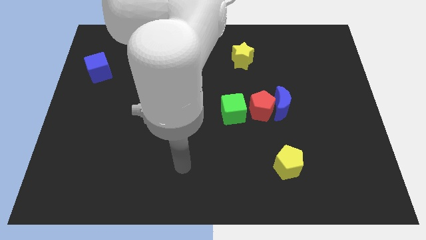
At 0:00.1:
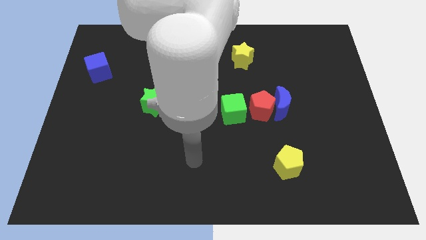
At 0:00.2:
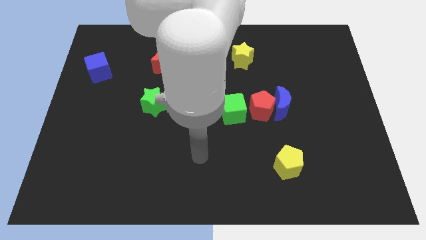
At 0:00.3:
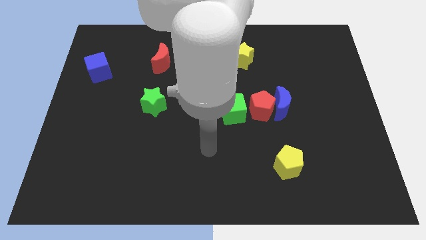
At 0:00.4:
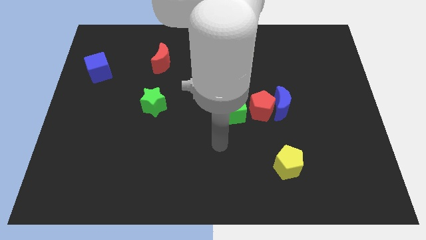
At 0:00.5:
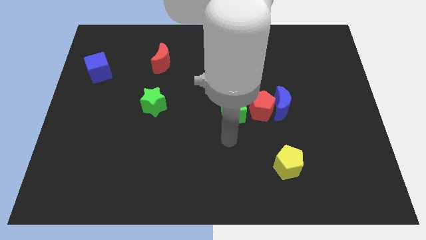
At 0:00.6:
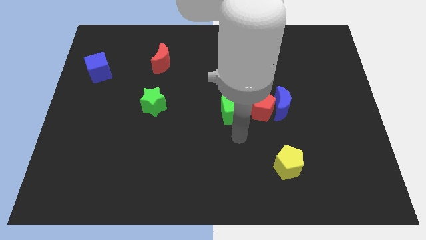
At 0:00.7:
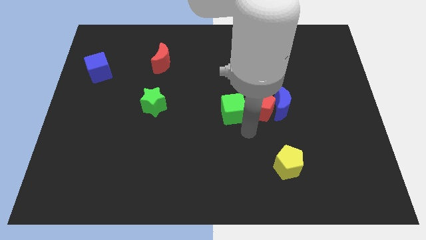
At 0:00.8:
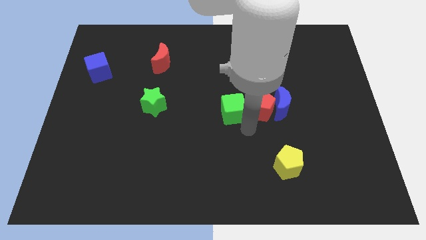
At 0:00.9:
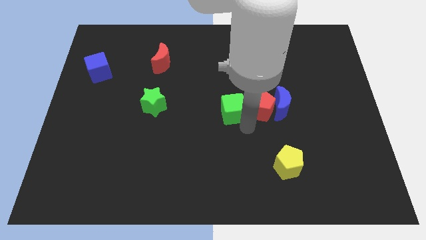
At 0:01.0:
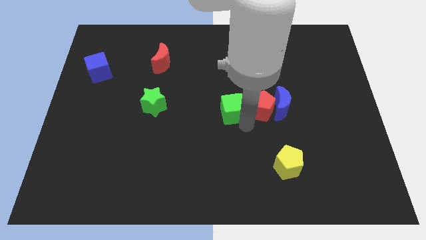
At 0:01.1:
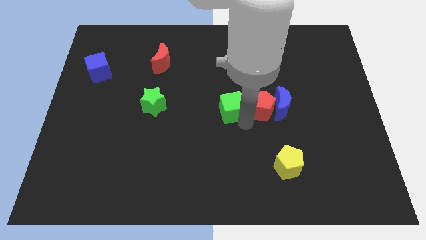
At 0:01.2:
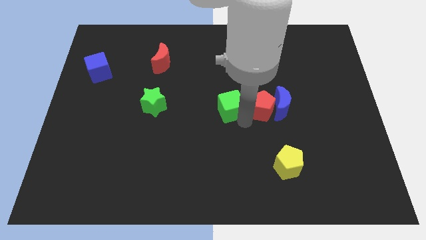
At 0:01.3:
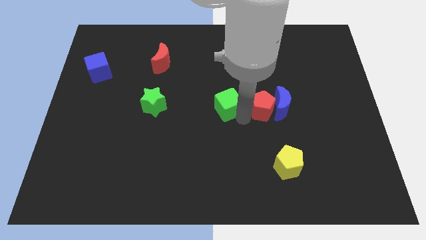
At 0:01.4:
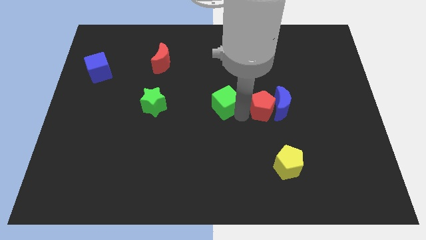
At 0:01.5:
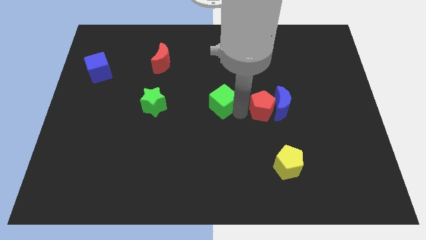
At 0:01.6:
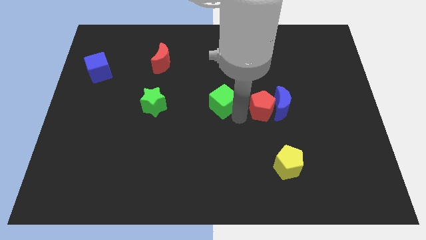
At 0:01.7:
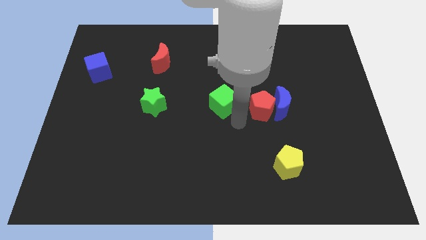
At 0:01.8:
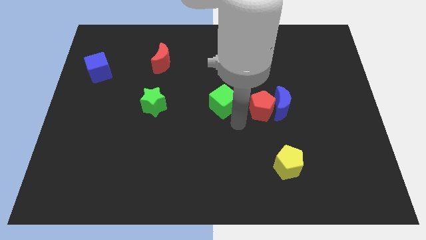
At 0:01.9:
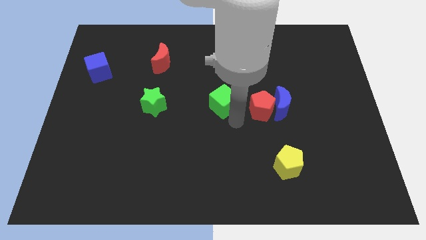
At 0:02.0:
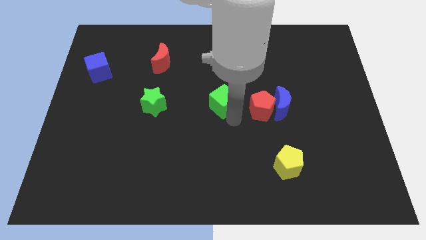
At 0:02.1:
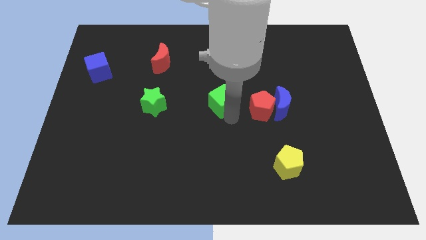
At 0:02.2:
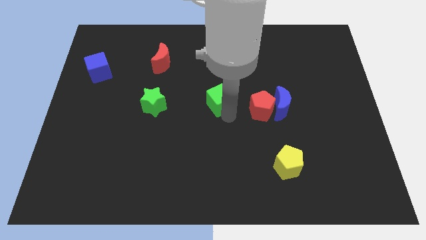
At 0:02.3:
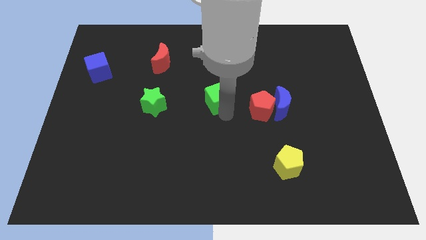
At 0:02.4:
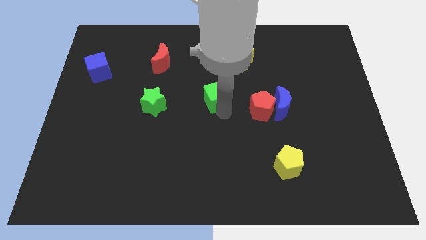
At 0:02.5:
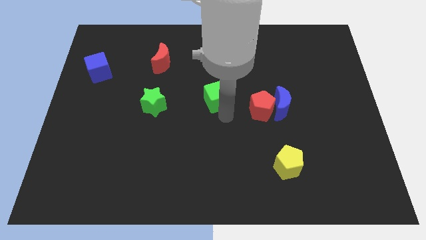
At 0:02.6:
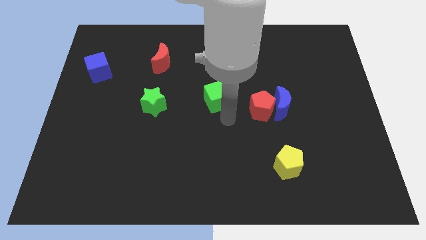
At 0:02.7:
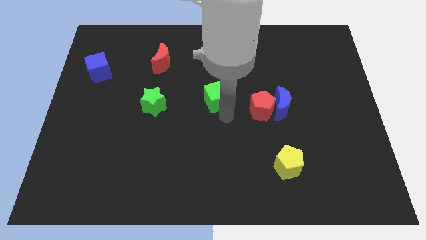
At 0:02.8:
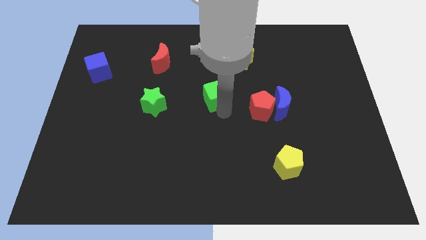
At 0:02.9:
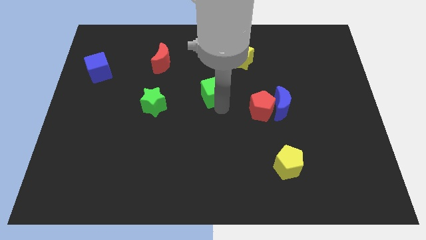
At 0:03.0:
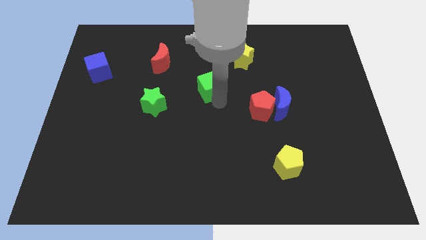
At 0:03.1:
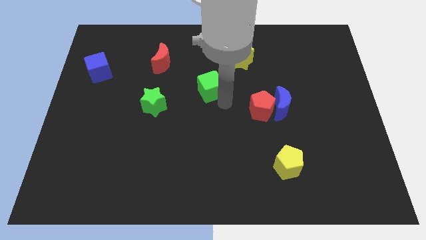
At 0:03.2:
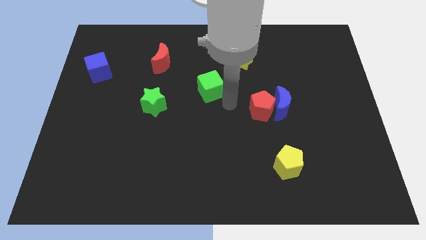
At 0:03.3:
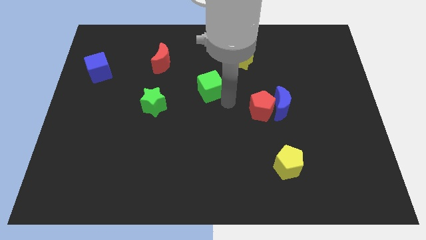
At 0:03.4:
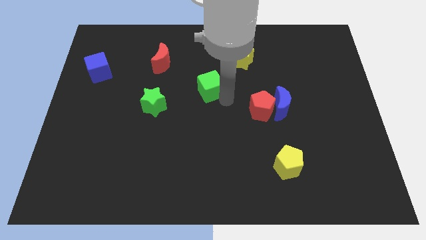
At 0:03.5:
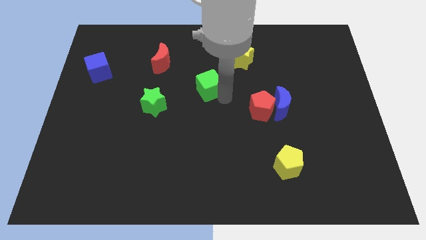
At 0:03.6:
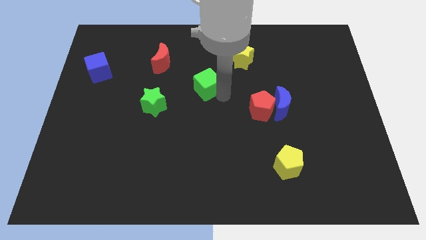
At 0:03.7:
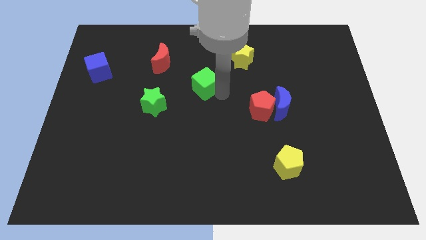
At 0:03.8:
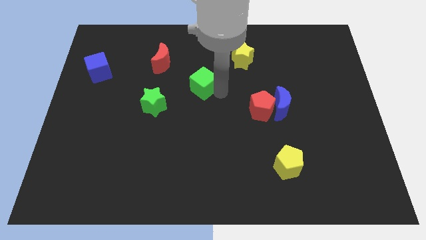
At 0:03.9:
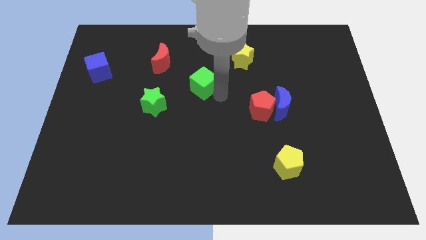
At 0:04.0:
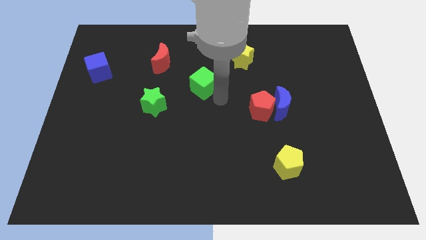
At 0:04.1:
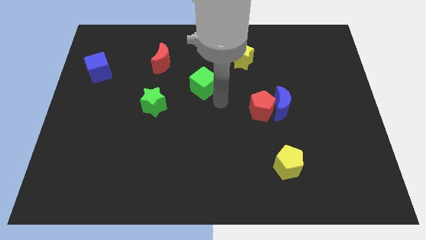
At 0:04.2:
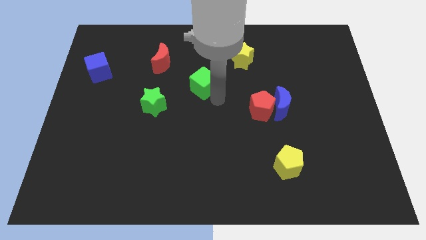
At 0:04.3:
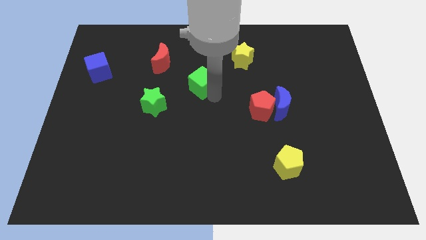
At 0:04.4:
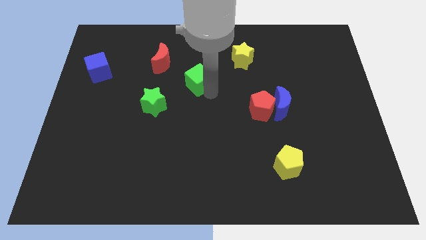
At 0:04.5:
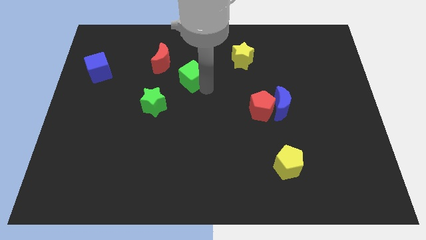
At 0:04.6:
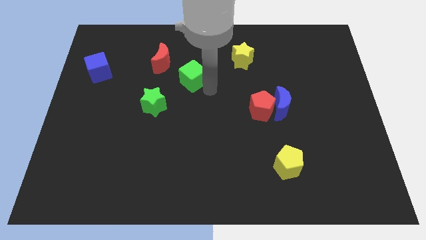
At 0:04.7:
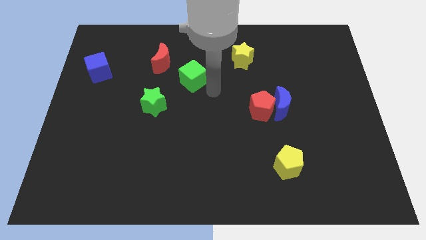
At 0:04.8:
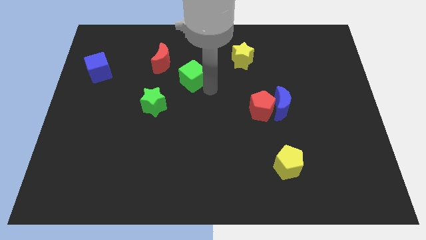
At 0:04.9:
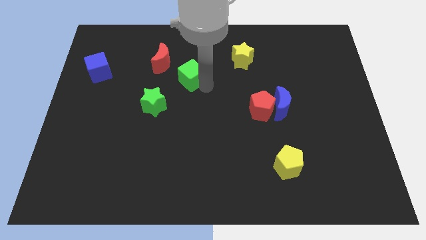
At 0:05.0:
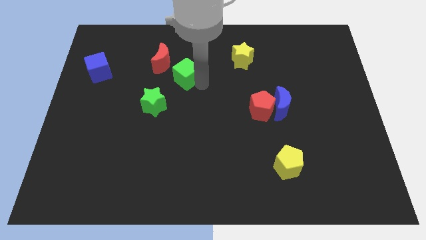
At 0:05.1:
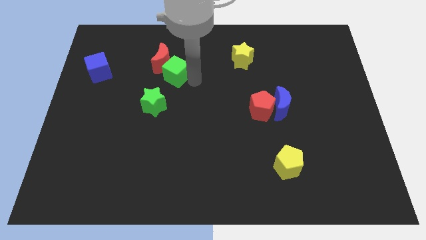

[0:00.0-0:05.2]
push the green cube towards the red moon

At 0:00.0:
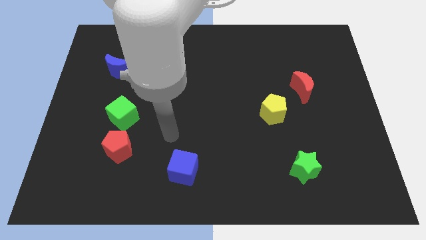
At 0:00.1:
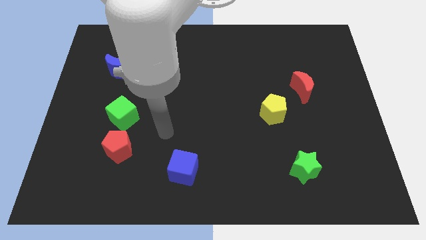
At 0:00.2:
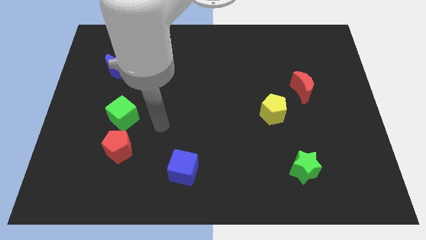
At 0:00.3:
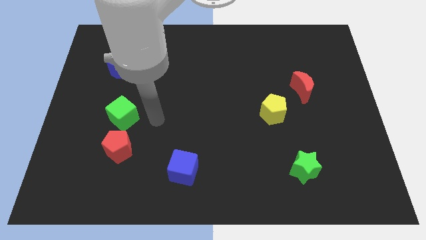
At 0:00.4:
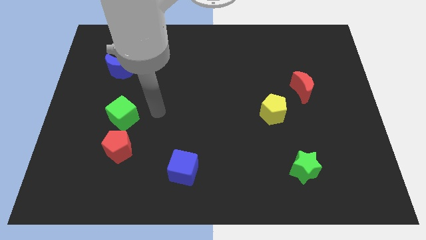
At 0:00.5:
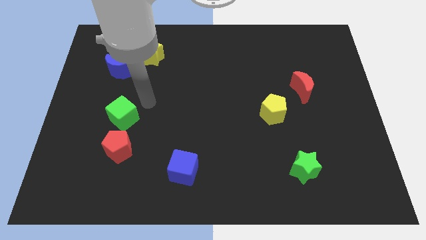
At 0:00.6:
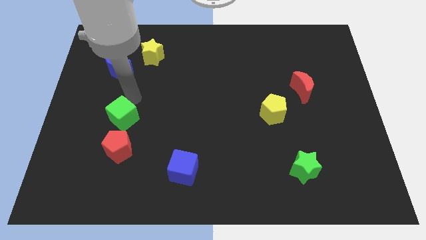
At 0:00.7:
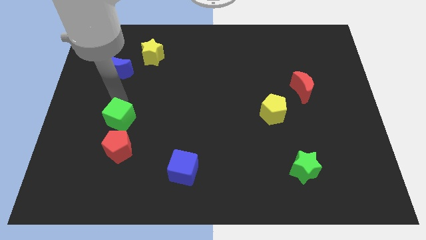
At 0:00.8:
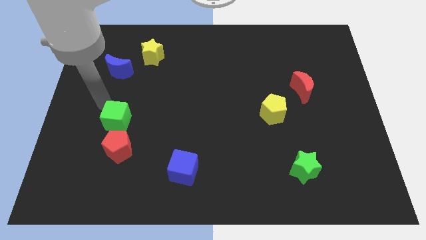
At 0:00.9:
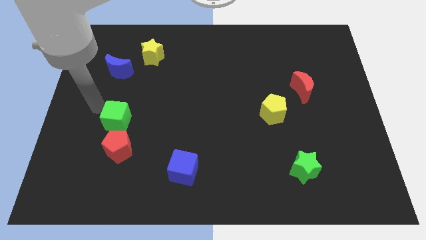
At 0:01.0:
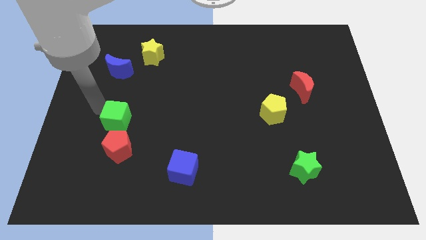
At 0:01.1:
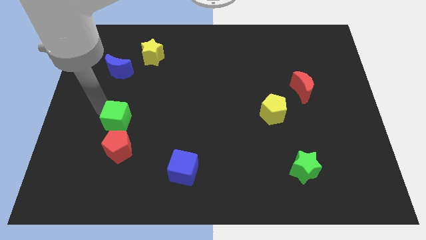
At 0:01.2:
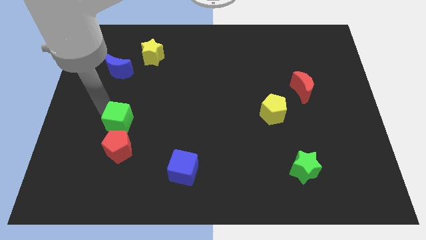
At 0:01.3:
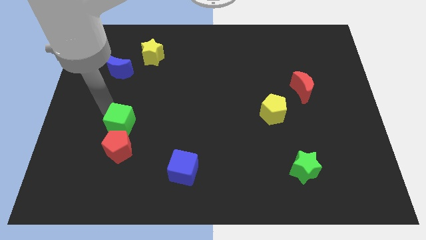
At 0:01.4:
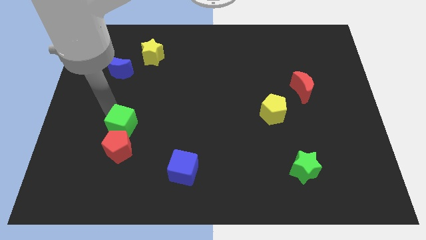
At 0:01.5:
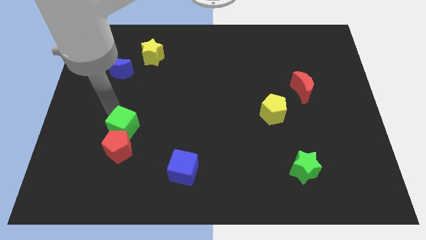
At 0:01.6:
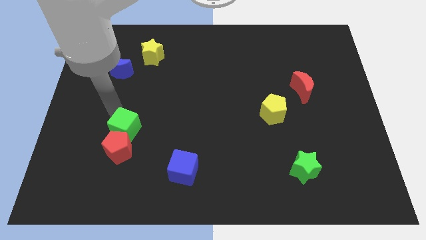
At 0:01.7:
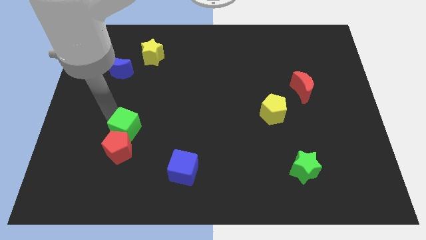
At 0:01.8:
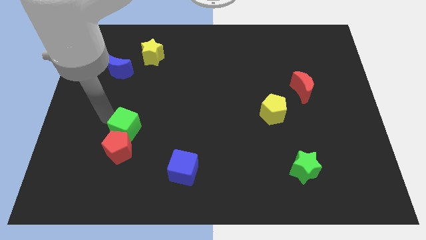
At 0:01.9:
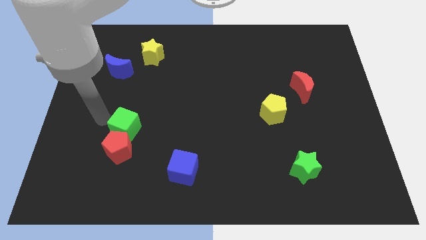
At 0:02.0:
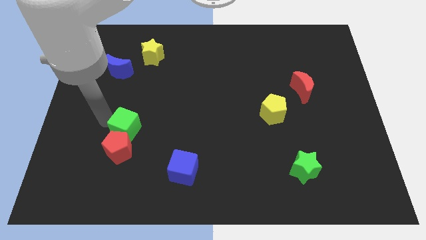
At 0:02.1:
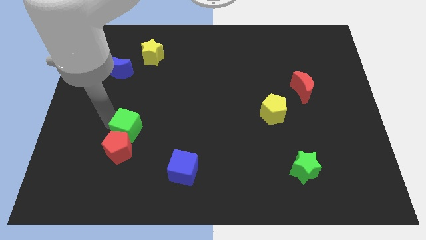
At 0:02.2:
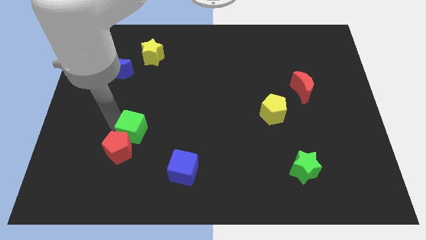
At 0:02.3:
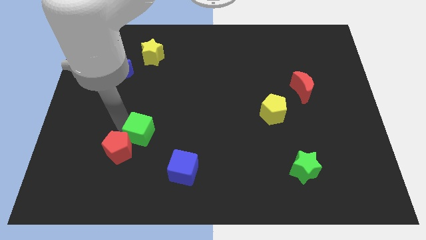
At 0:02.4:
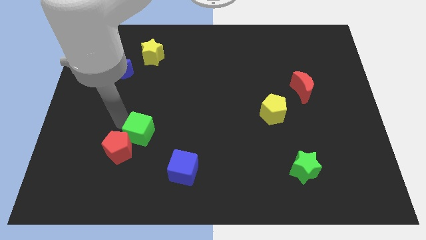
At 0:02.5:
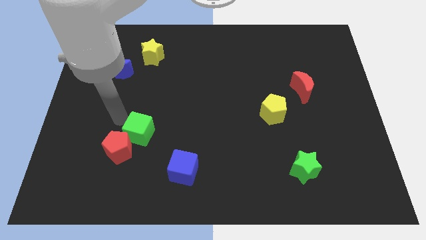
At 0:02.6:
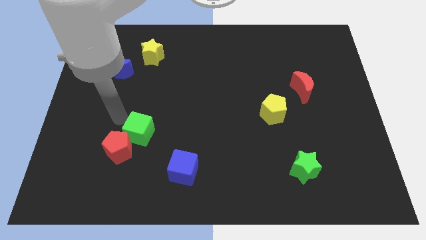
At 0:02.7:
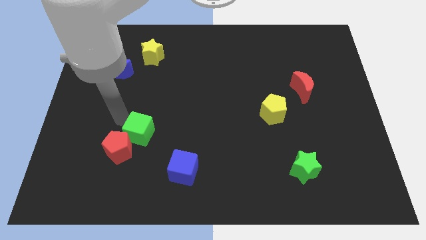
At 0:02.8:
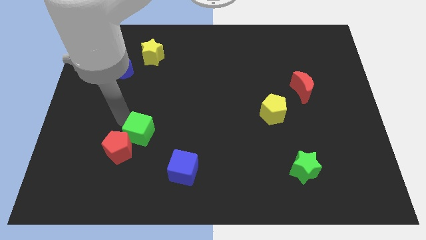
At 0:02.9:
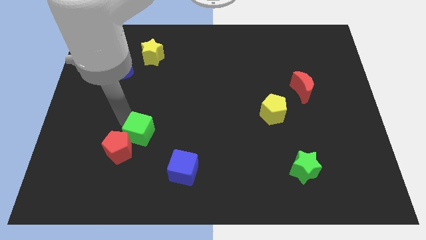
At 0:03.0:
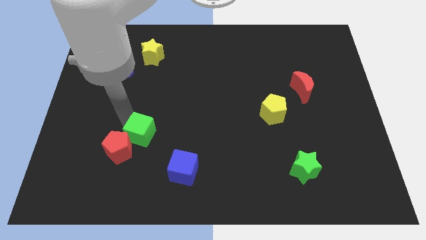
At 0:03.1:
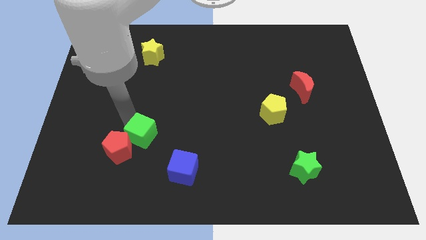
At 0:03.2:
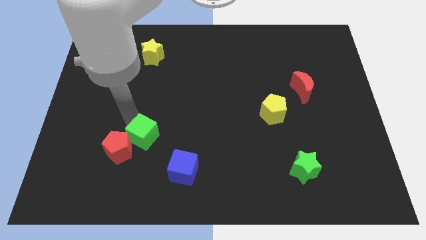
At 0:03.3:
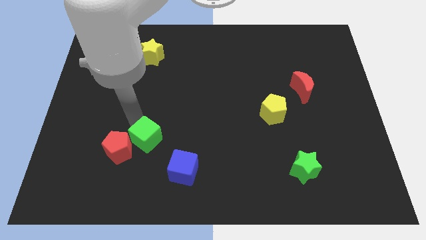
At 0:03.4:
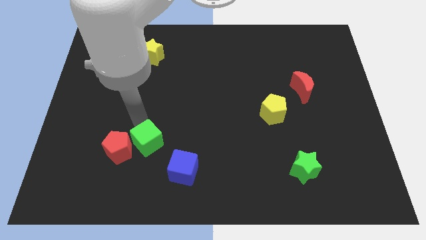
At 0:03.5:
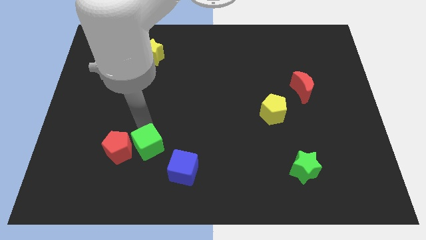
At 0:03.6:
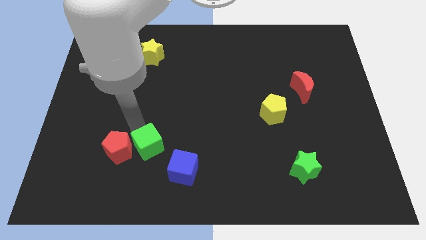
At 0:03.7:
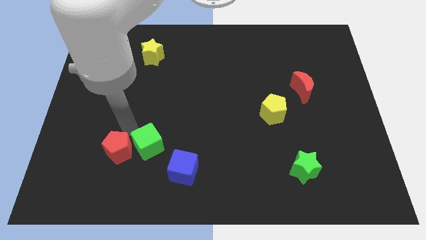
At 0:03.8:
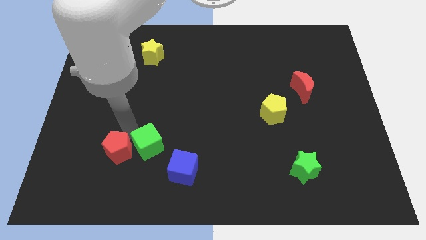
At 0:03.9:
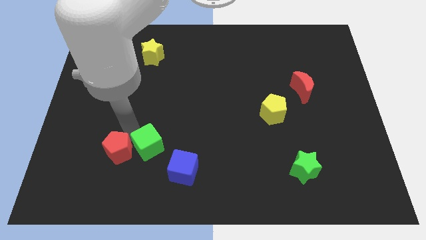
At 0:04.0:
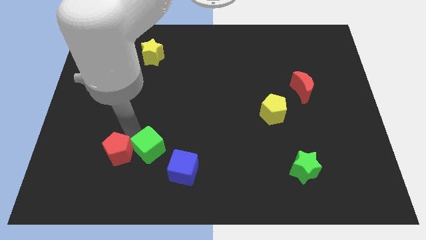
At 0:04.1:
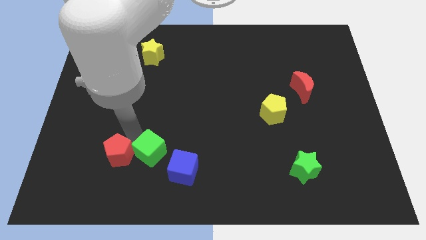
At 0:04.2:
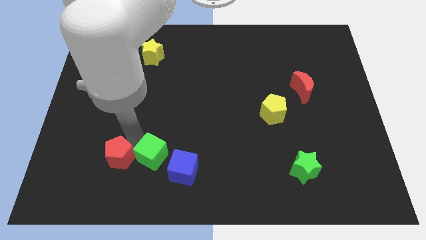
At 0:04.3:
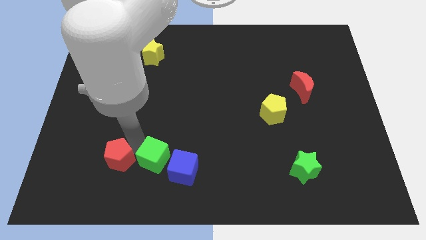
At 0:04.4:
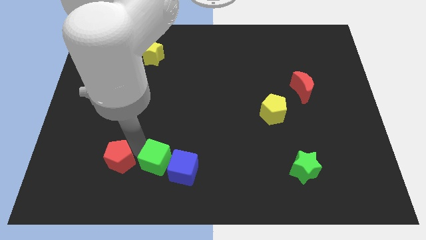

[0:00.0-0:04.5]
push the green cube close to the blue cube
